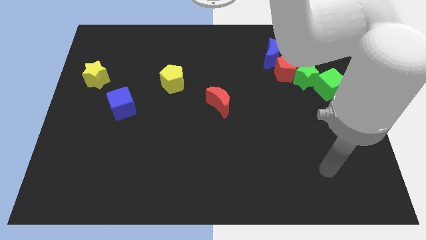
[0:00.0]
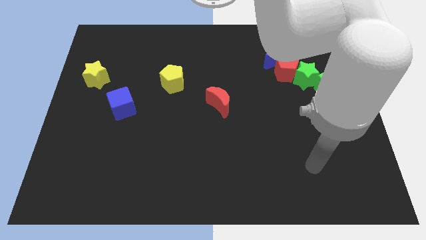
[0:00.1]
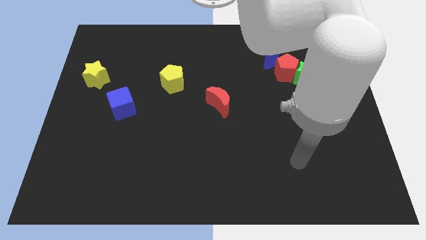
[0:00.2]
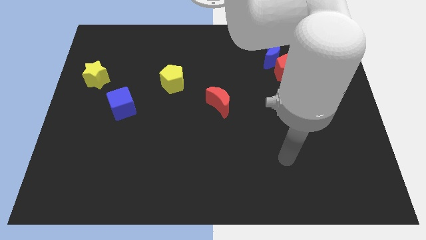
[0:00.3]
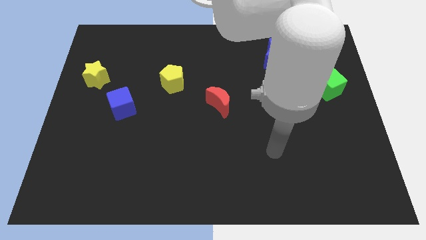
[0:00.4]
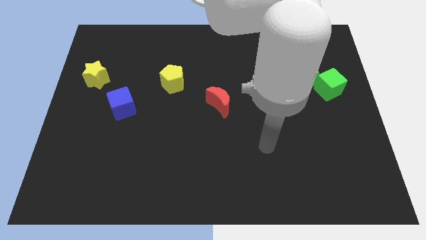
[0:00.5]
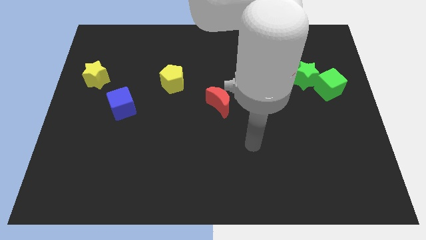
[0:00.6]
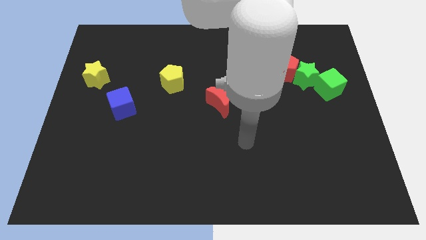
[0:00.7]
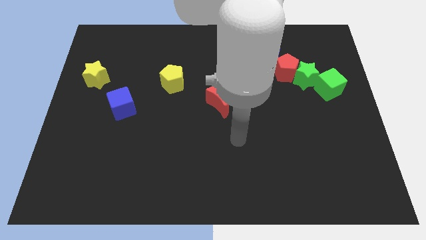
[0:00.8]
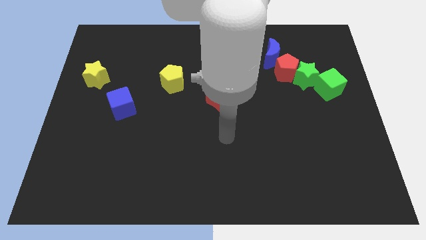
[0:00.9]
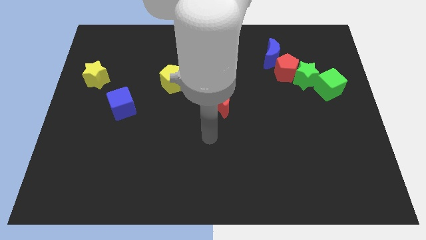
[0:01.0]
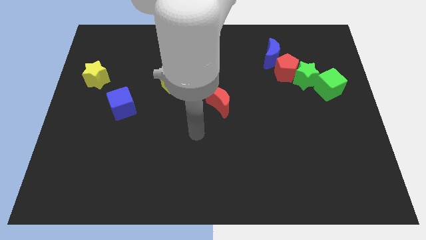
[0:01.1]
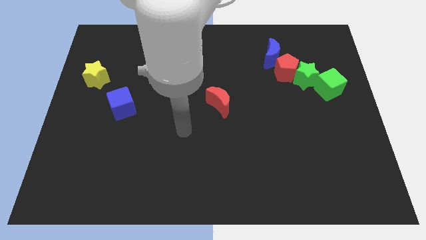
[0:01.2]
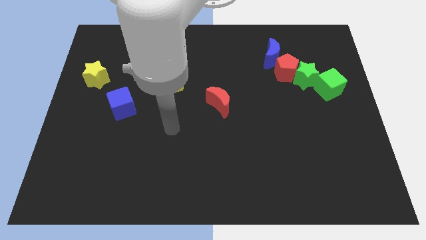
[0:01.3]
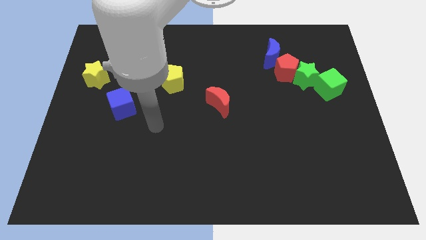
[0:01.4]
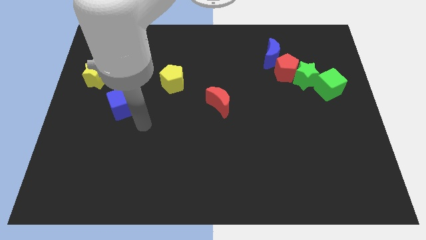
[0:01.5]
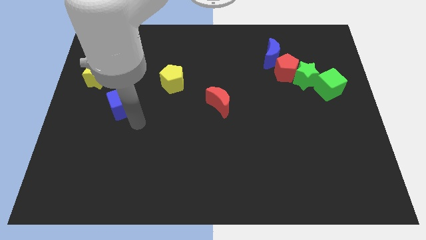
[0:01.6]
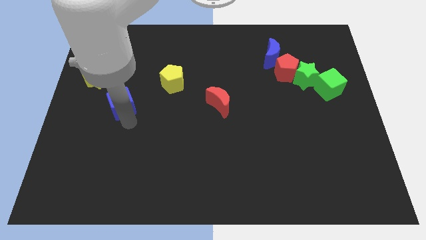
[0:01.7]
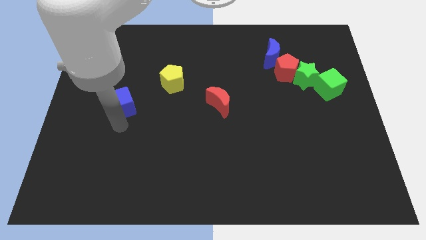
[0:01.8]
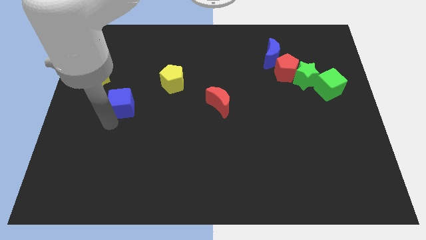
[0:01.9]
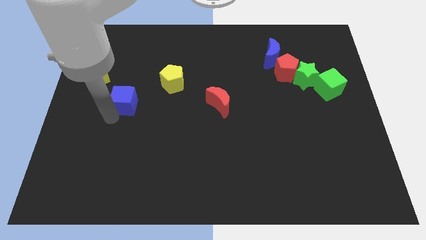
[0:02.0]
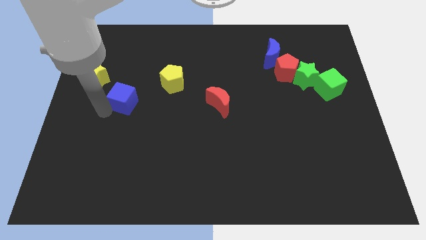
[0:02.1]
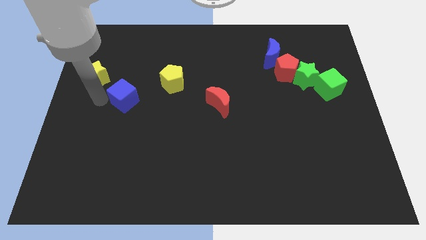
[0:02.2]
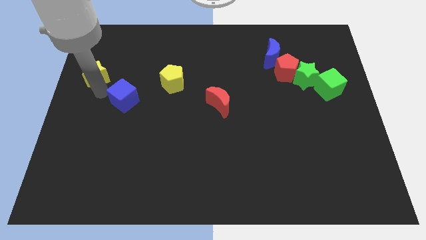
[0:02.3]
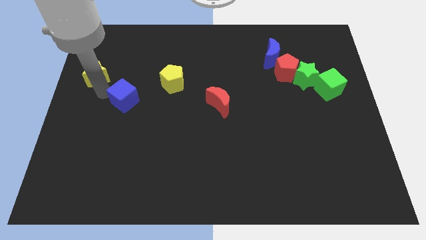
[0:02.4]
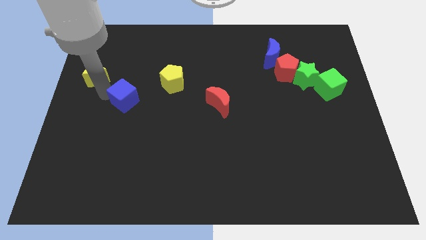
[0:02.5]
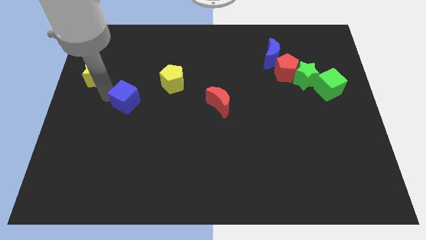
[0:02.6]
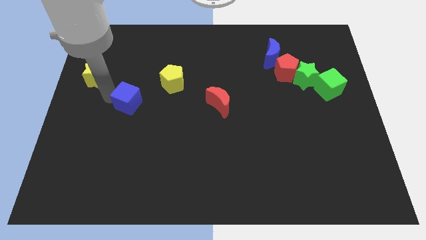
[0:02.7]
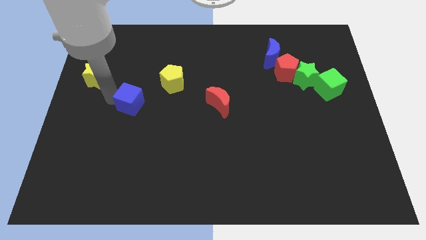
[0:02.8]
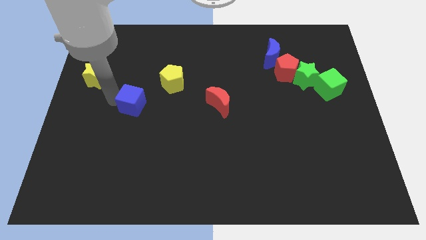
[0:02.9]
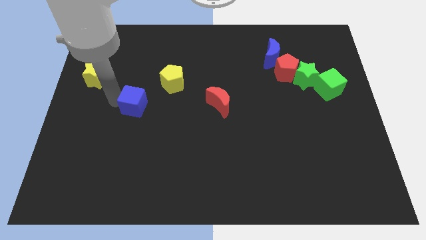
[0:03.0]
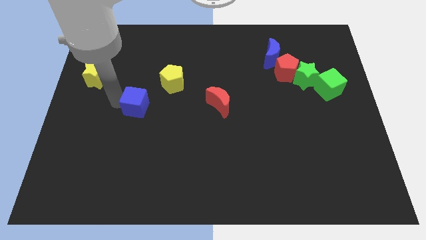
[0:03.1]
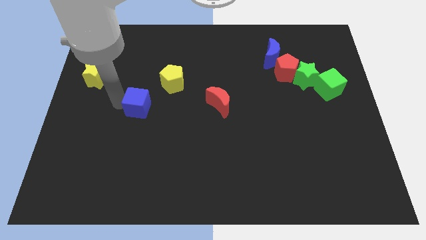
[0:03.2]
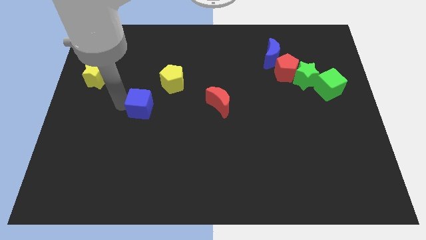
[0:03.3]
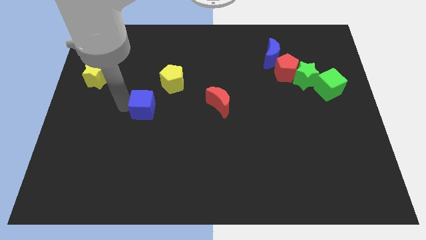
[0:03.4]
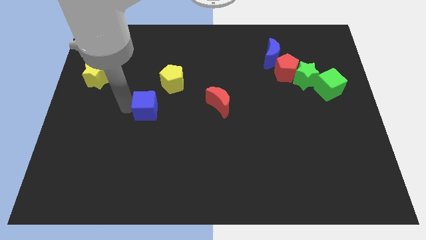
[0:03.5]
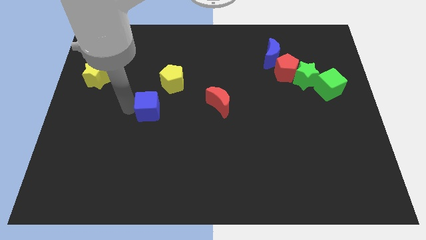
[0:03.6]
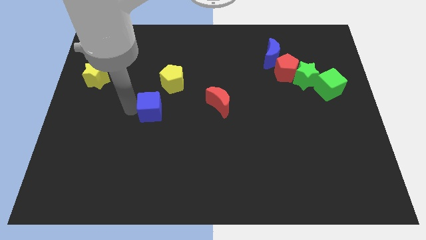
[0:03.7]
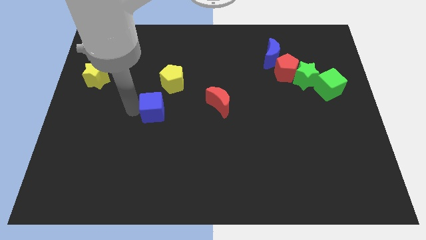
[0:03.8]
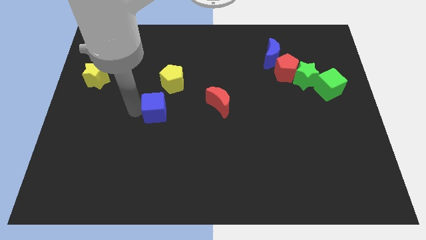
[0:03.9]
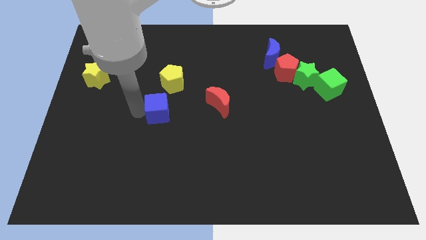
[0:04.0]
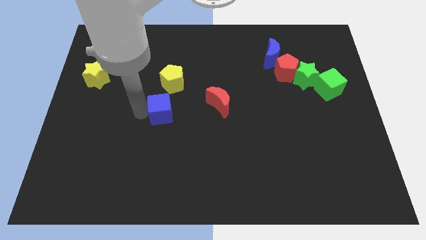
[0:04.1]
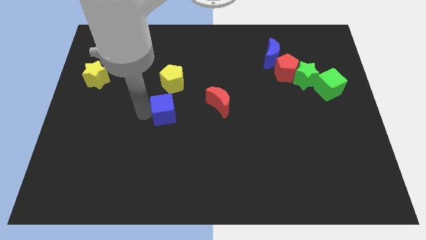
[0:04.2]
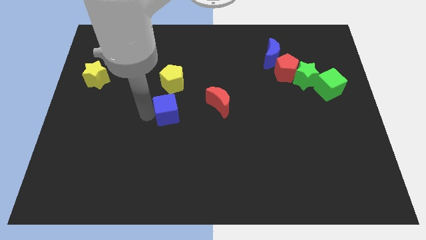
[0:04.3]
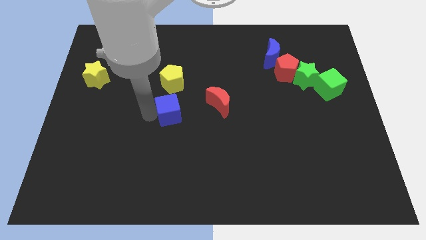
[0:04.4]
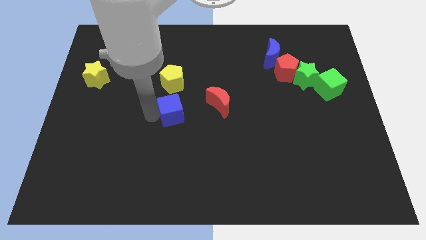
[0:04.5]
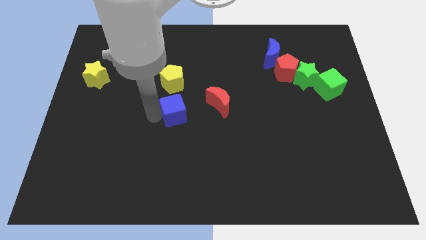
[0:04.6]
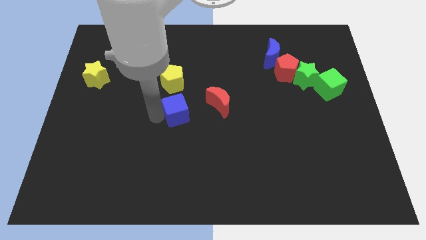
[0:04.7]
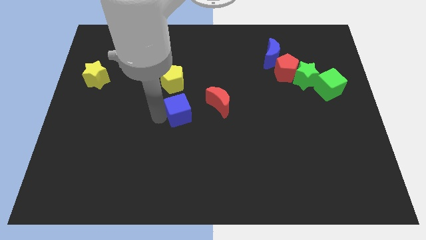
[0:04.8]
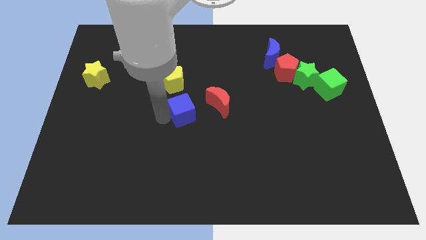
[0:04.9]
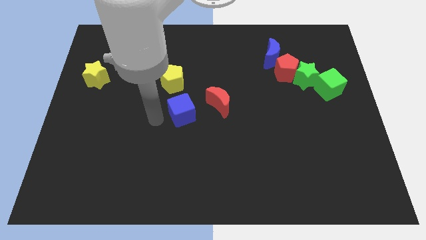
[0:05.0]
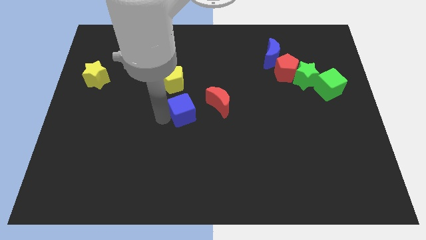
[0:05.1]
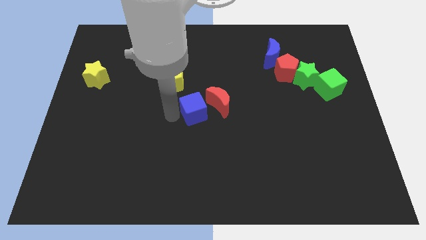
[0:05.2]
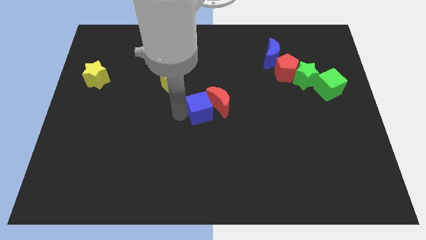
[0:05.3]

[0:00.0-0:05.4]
put the blue cube towards the red moon
